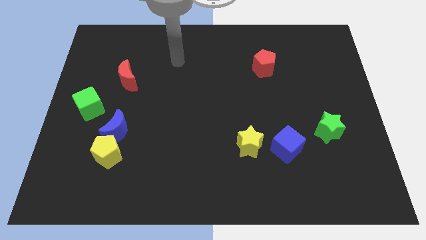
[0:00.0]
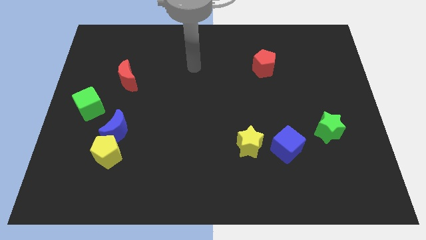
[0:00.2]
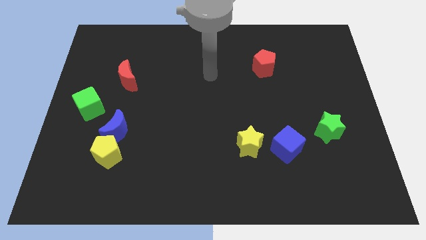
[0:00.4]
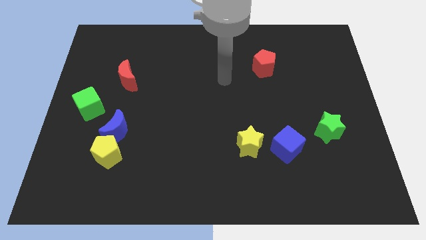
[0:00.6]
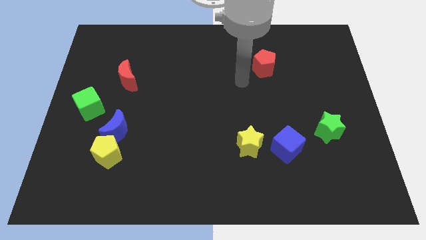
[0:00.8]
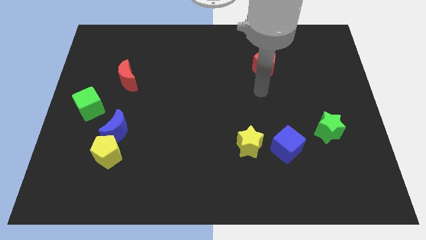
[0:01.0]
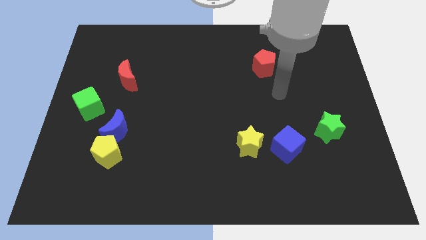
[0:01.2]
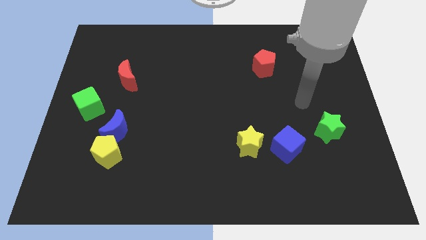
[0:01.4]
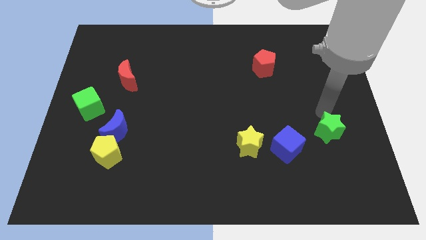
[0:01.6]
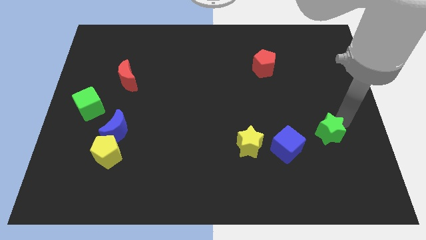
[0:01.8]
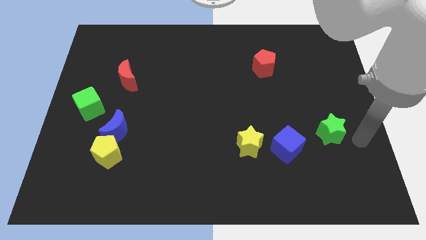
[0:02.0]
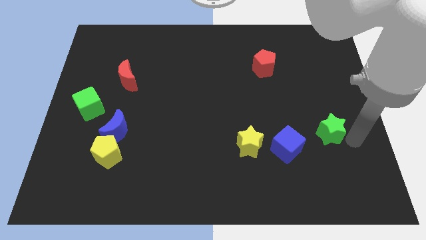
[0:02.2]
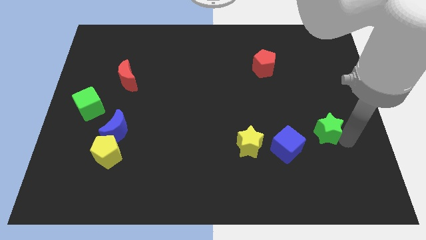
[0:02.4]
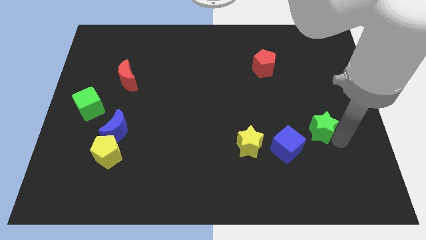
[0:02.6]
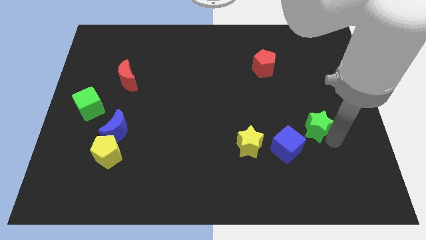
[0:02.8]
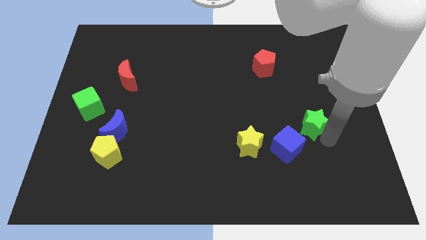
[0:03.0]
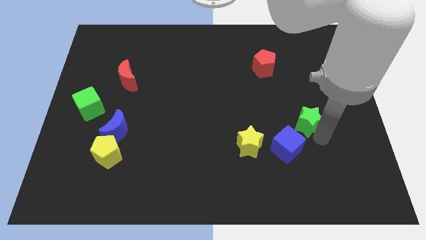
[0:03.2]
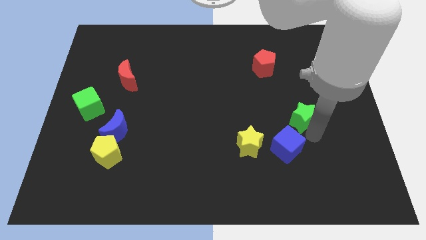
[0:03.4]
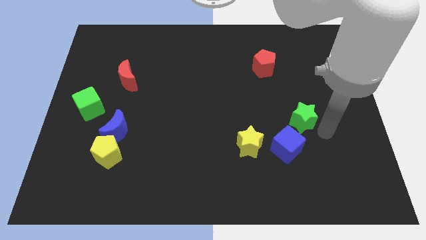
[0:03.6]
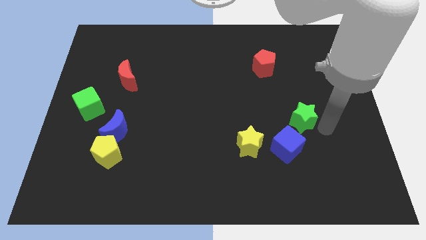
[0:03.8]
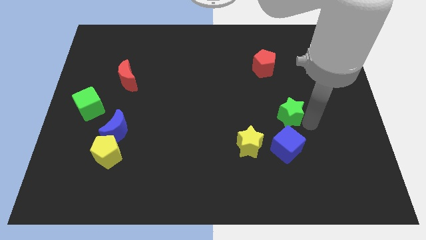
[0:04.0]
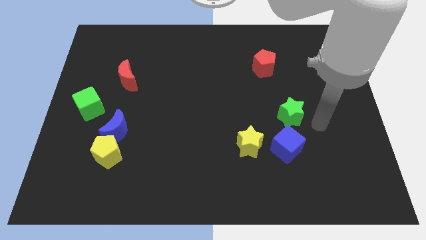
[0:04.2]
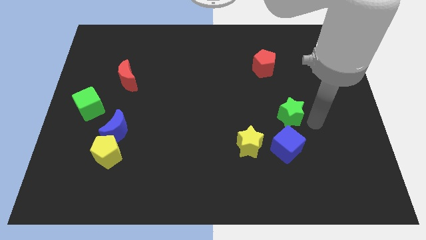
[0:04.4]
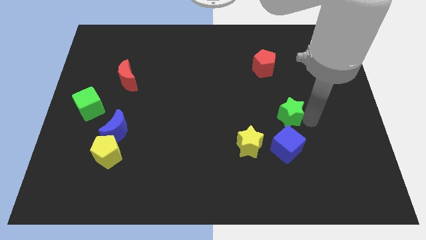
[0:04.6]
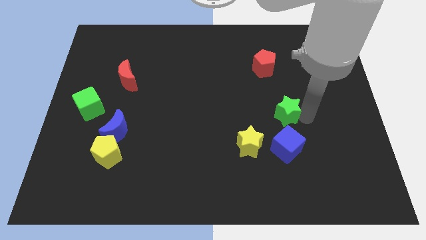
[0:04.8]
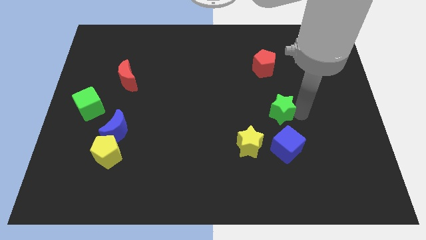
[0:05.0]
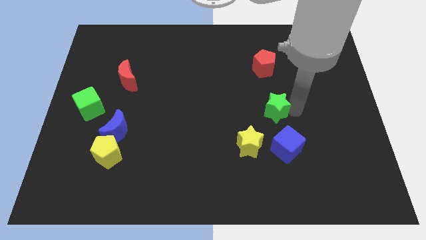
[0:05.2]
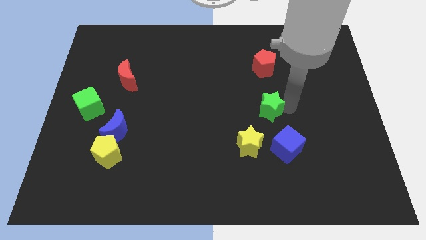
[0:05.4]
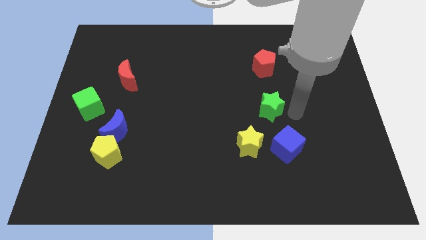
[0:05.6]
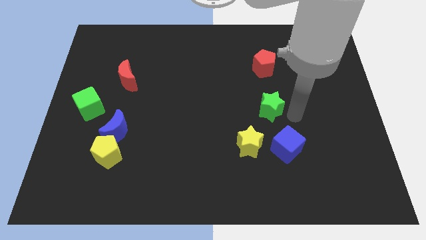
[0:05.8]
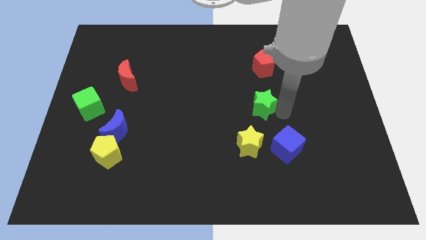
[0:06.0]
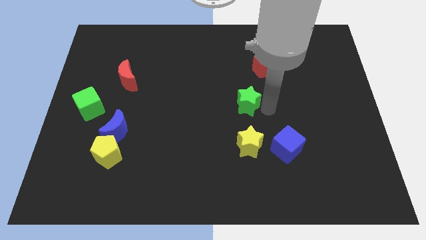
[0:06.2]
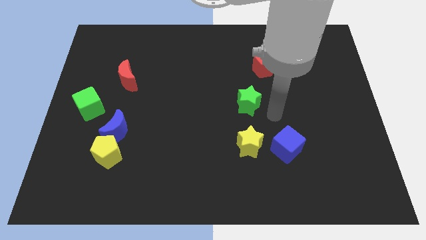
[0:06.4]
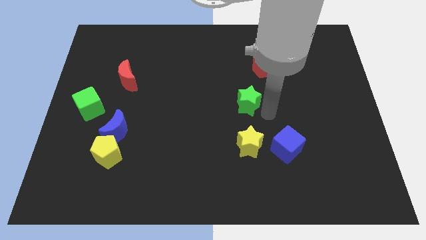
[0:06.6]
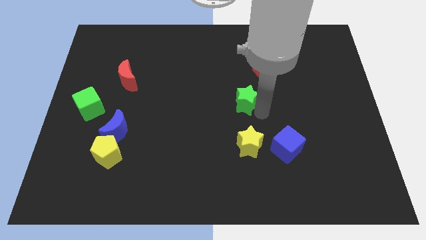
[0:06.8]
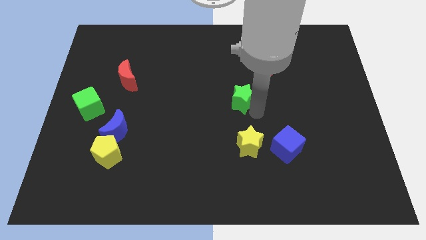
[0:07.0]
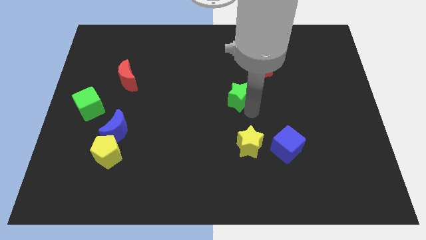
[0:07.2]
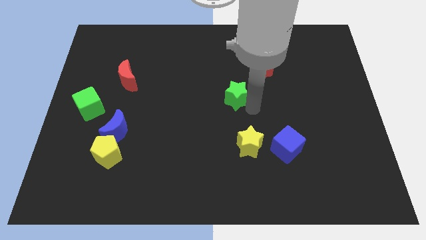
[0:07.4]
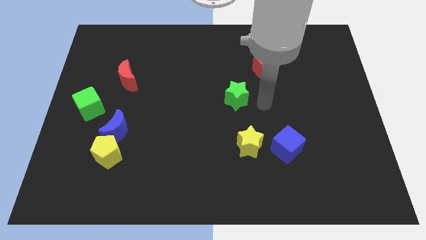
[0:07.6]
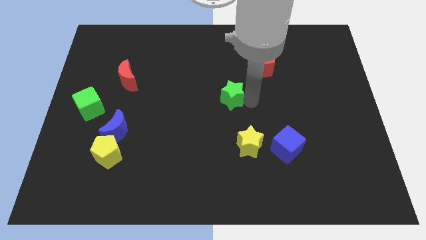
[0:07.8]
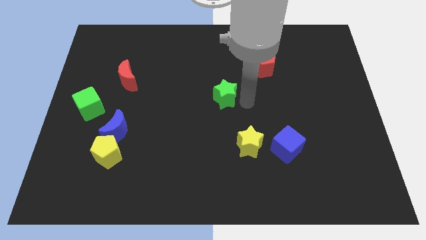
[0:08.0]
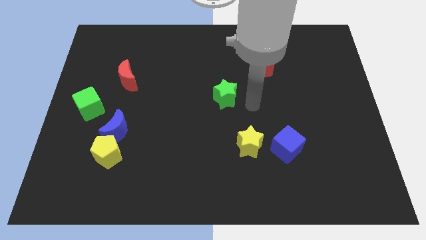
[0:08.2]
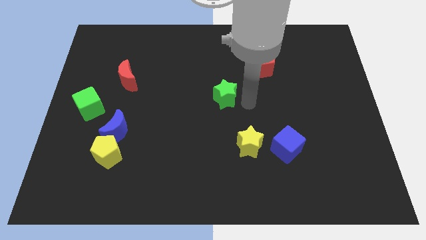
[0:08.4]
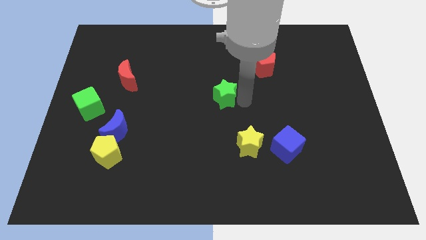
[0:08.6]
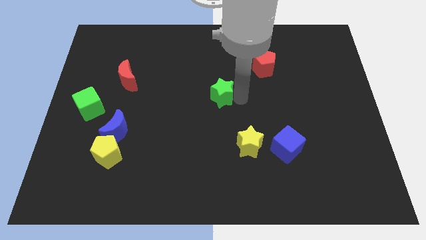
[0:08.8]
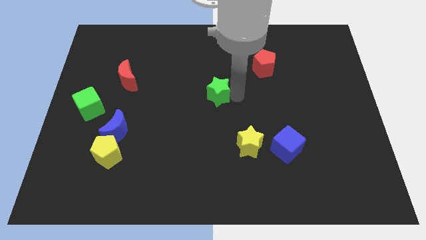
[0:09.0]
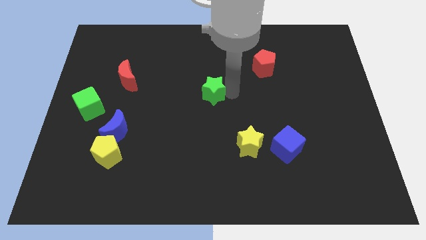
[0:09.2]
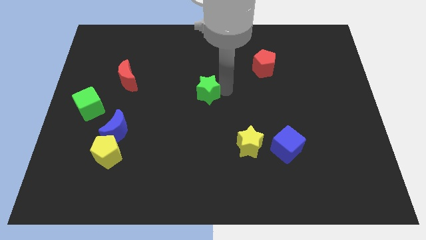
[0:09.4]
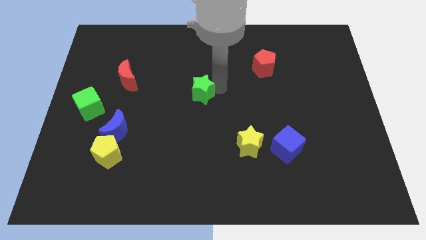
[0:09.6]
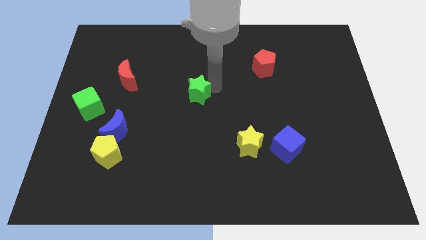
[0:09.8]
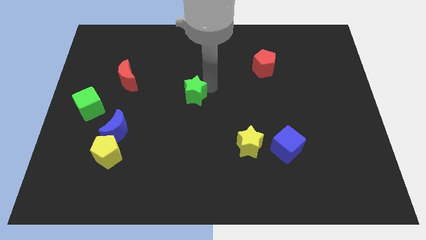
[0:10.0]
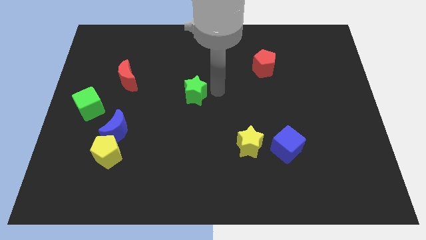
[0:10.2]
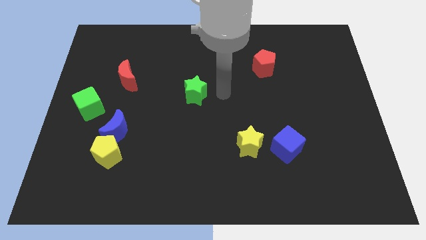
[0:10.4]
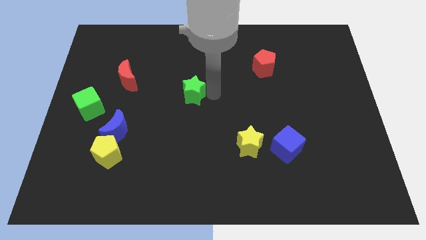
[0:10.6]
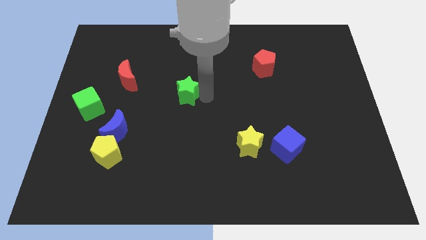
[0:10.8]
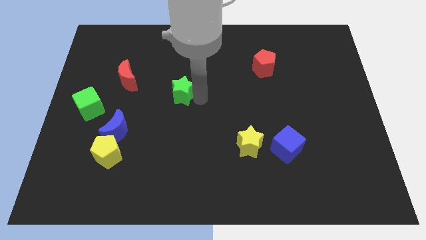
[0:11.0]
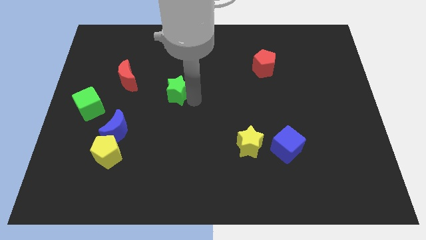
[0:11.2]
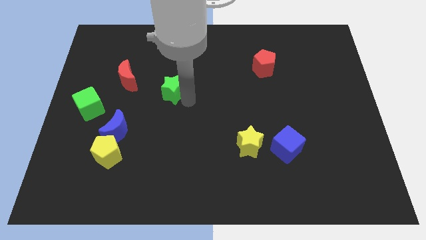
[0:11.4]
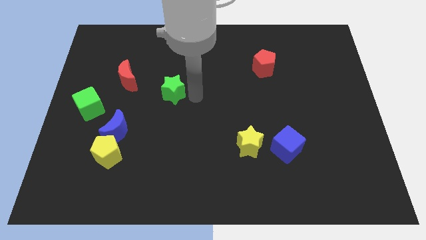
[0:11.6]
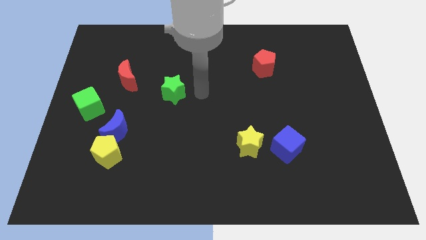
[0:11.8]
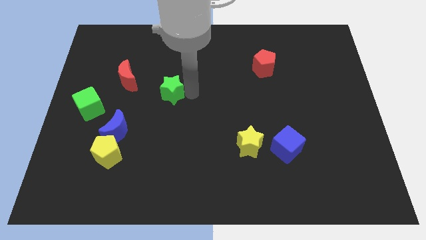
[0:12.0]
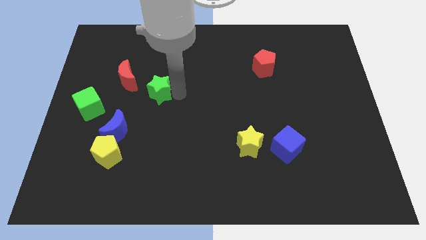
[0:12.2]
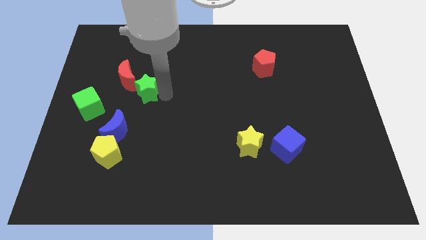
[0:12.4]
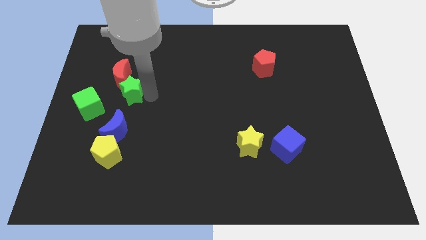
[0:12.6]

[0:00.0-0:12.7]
put the green star towards the red moon
